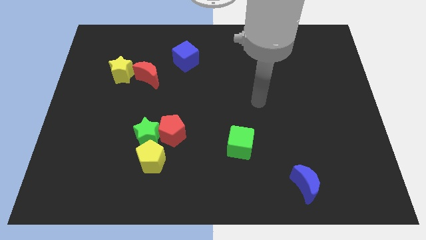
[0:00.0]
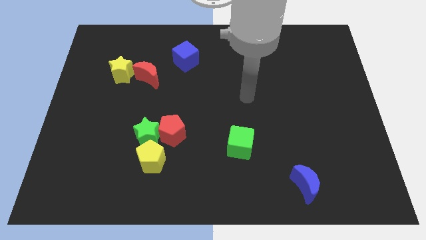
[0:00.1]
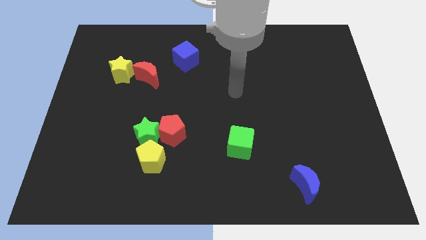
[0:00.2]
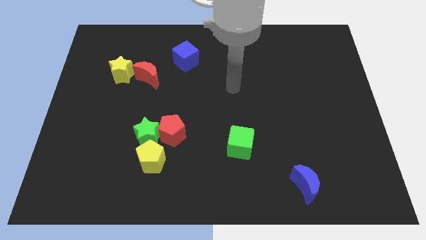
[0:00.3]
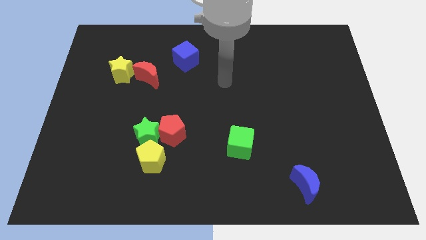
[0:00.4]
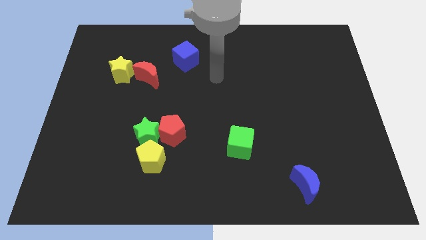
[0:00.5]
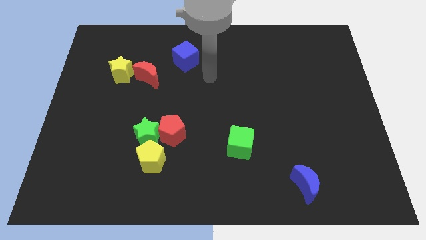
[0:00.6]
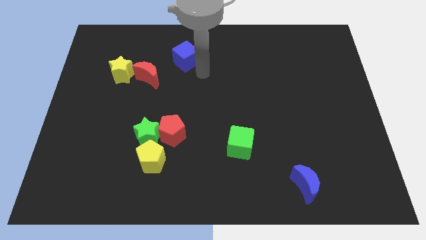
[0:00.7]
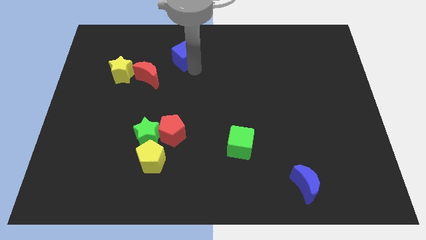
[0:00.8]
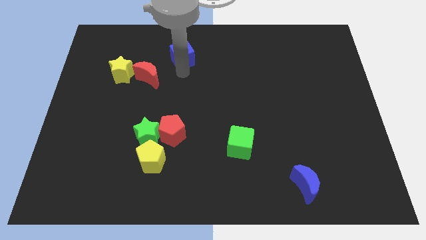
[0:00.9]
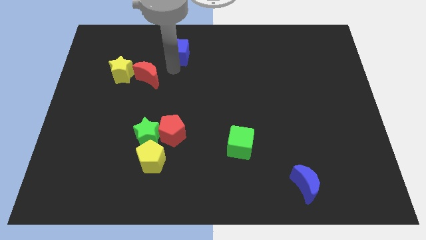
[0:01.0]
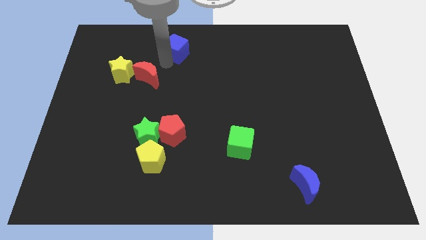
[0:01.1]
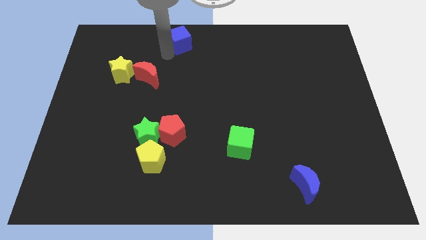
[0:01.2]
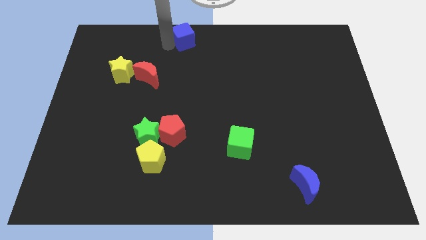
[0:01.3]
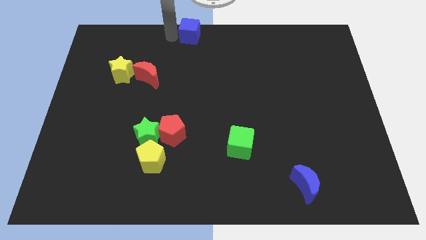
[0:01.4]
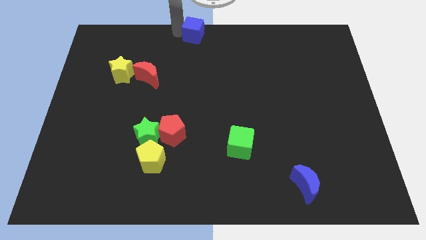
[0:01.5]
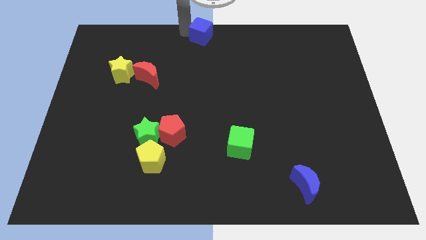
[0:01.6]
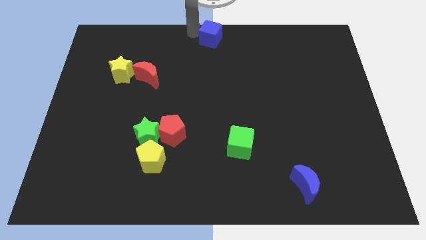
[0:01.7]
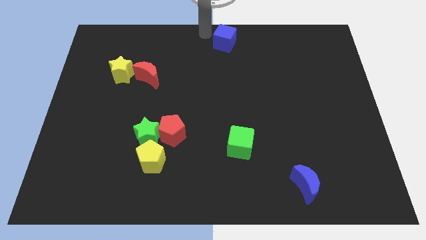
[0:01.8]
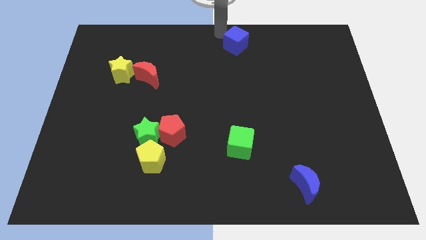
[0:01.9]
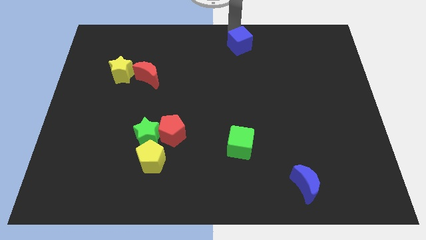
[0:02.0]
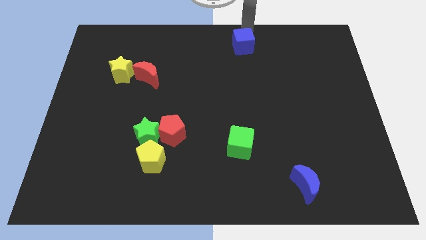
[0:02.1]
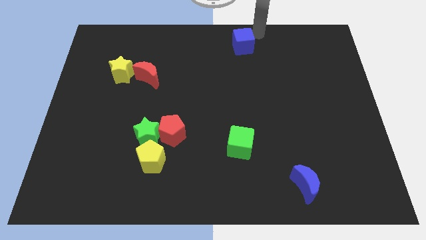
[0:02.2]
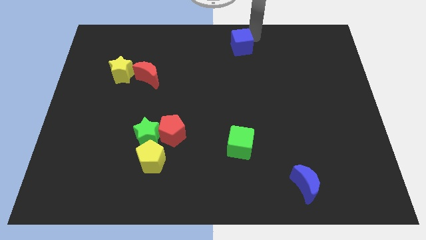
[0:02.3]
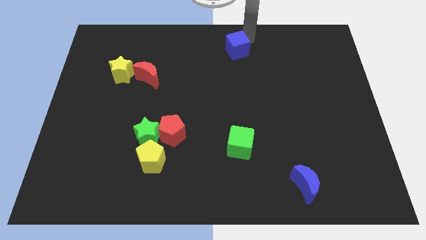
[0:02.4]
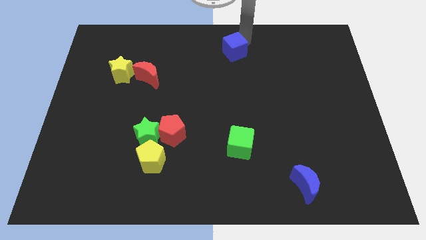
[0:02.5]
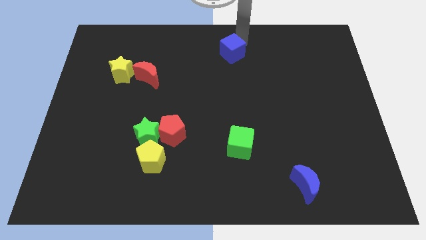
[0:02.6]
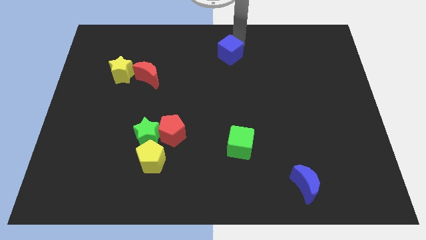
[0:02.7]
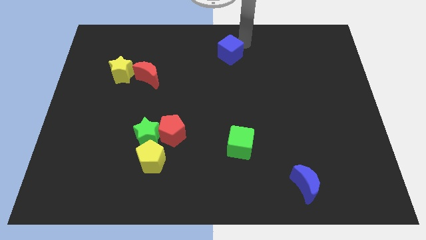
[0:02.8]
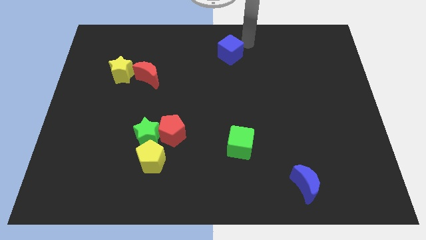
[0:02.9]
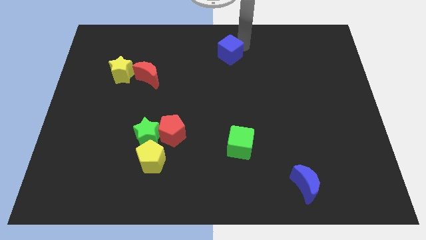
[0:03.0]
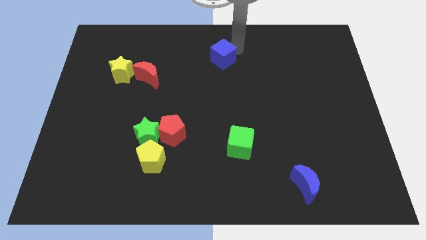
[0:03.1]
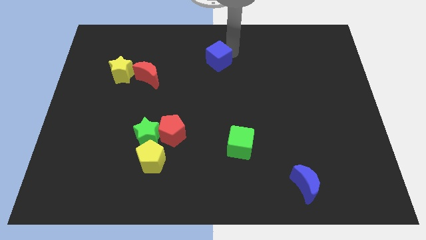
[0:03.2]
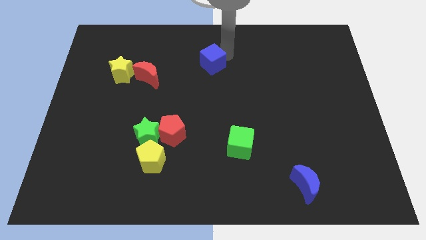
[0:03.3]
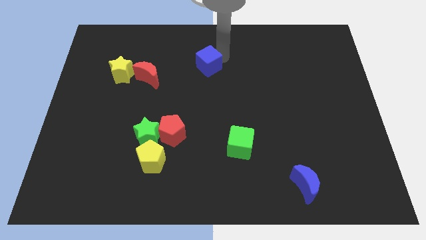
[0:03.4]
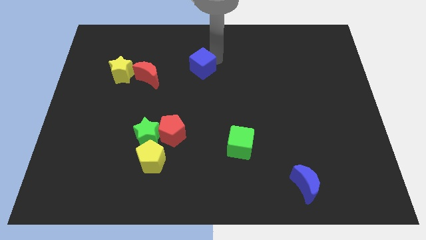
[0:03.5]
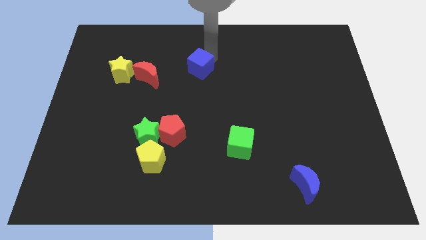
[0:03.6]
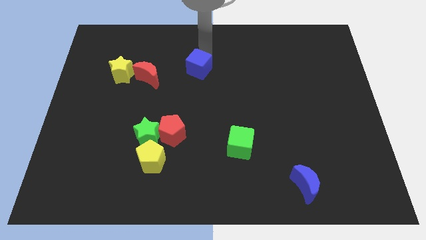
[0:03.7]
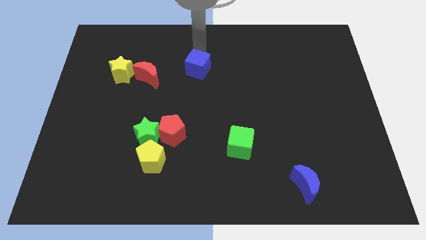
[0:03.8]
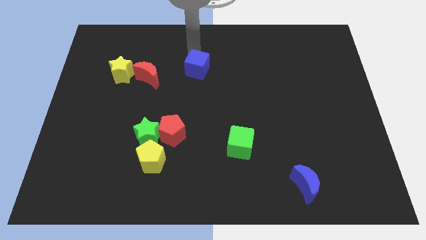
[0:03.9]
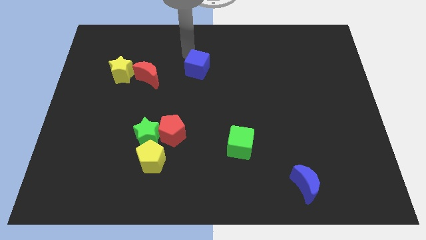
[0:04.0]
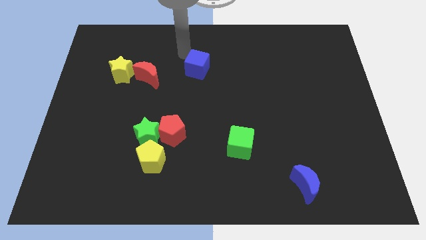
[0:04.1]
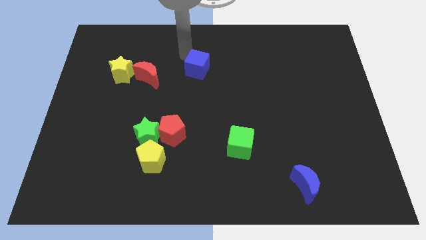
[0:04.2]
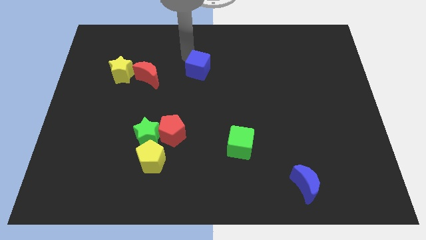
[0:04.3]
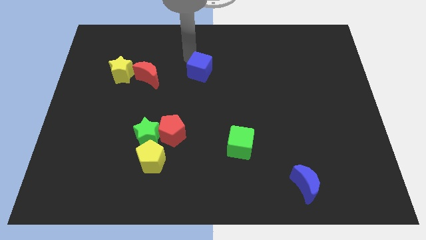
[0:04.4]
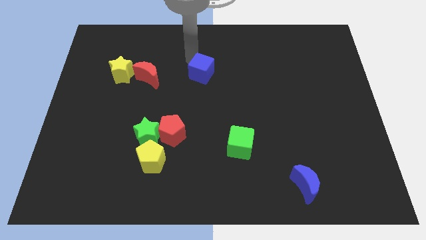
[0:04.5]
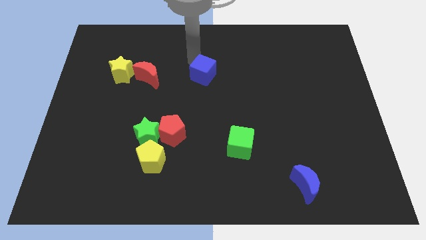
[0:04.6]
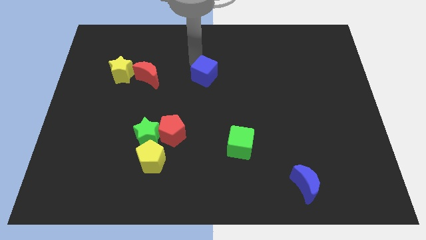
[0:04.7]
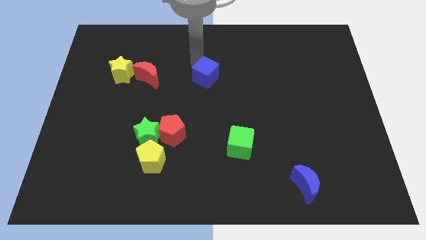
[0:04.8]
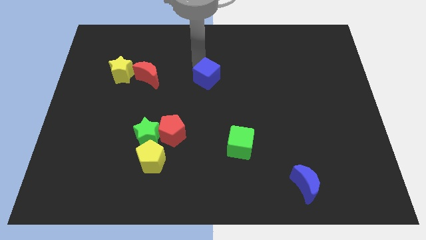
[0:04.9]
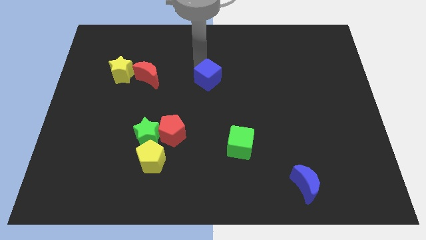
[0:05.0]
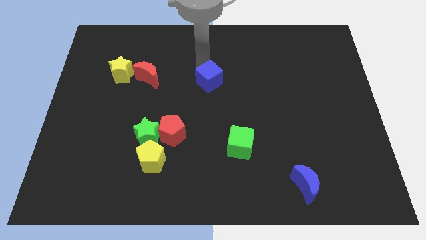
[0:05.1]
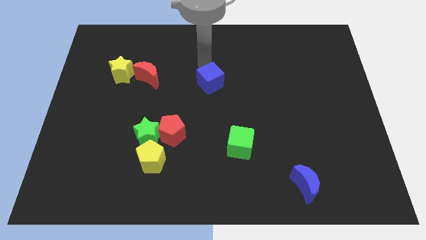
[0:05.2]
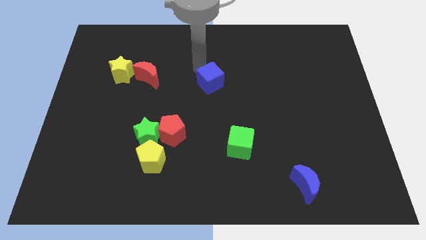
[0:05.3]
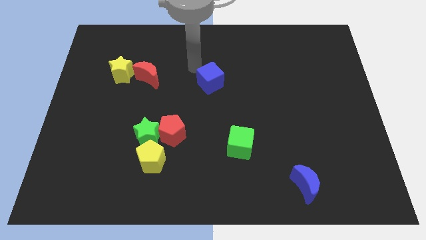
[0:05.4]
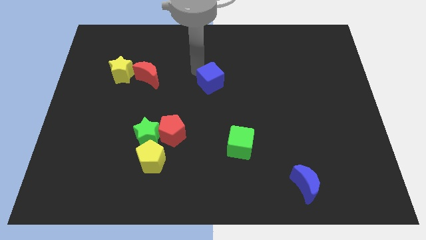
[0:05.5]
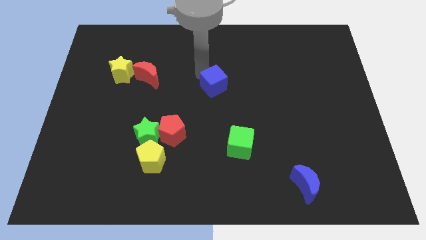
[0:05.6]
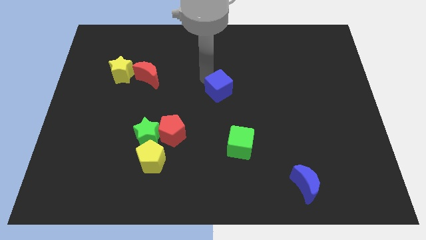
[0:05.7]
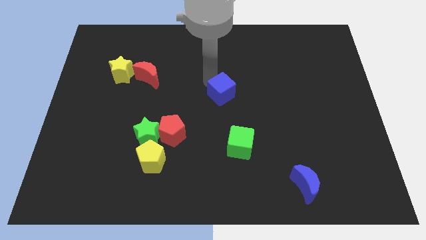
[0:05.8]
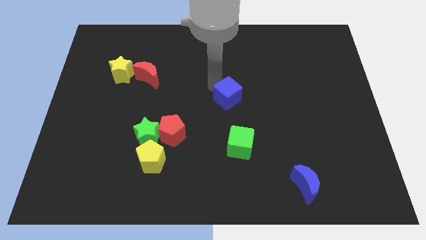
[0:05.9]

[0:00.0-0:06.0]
move the blue cube above the green cube

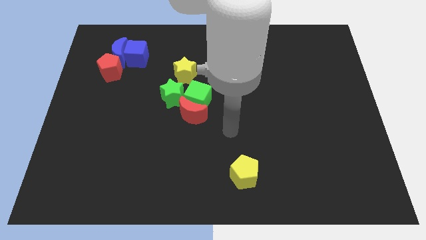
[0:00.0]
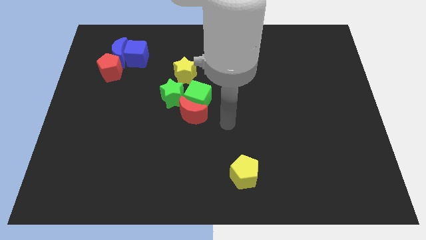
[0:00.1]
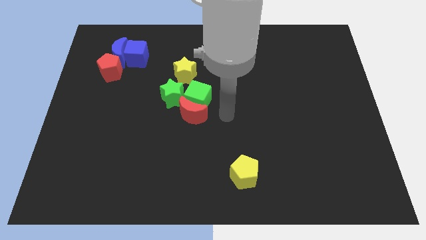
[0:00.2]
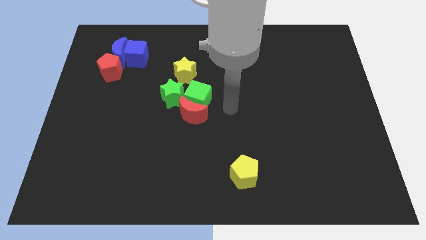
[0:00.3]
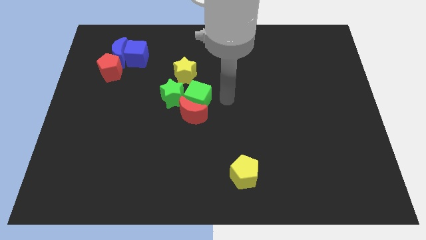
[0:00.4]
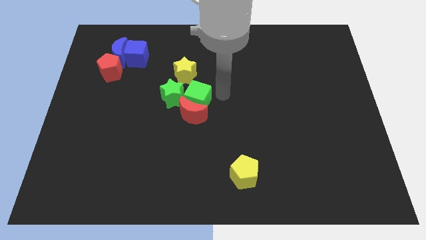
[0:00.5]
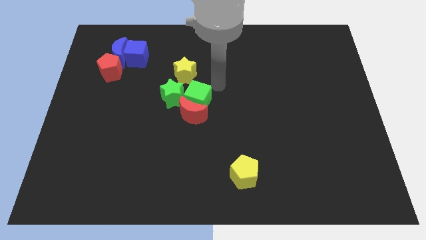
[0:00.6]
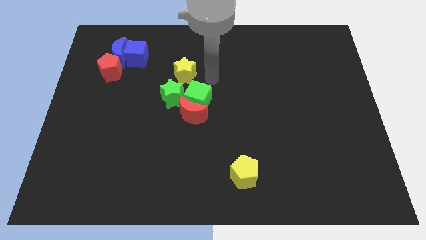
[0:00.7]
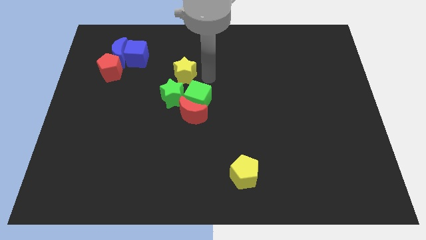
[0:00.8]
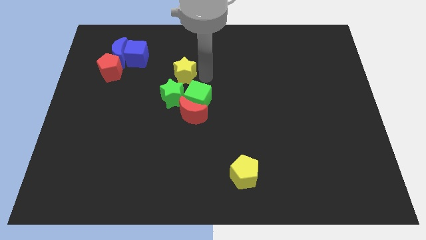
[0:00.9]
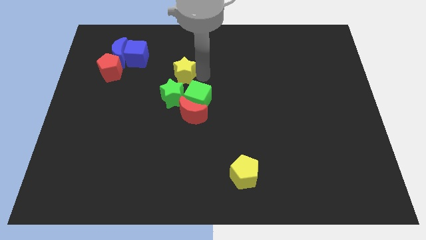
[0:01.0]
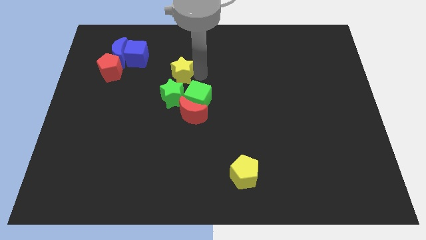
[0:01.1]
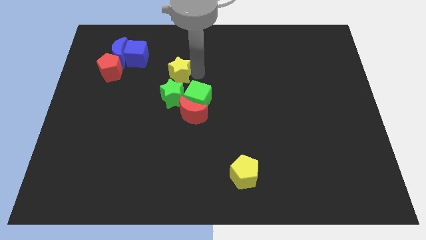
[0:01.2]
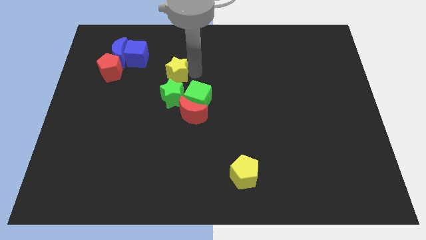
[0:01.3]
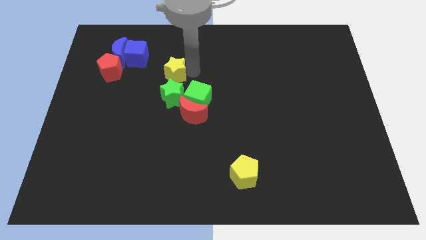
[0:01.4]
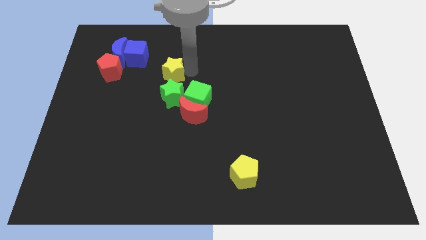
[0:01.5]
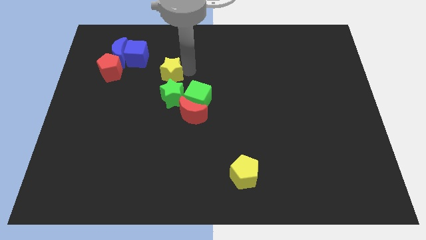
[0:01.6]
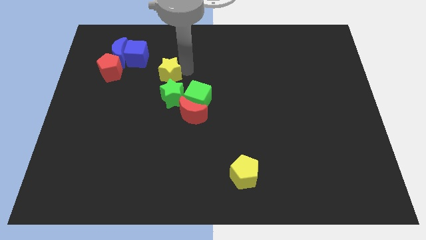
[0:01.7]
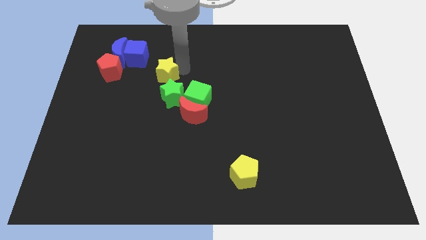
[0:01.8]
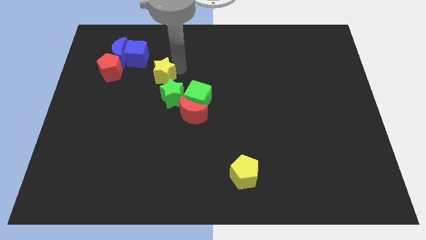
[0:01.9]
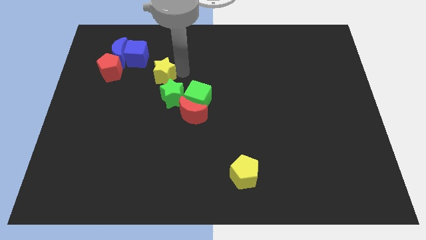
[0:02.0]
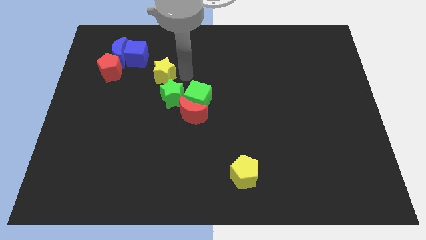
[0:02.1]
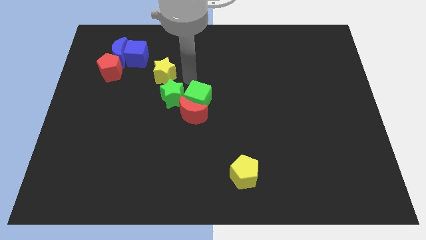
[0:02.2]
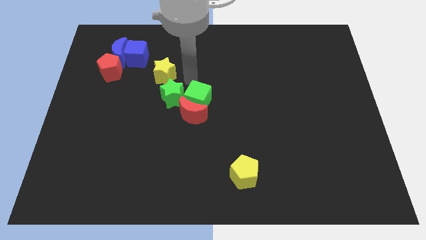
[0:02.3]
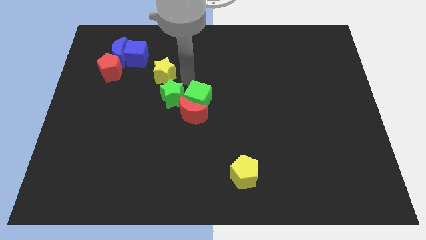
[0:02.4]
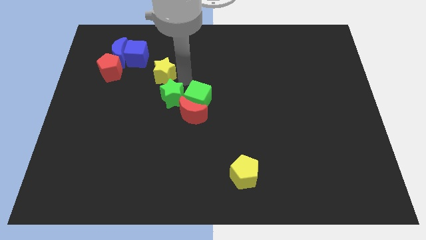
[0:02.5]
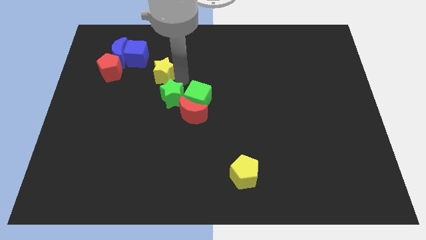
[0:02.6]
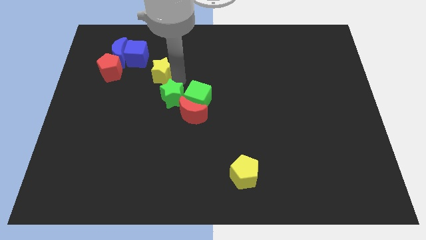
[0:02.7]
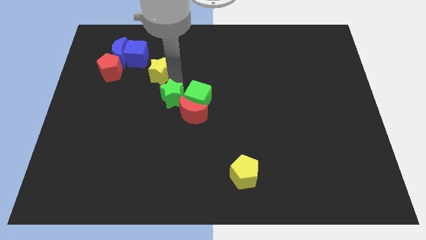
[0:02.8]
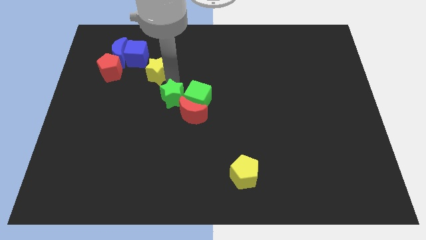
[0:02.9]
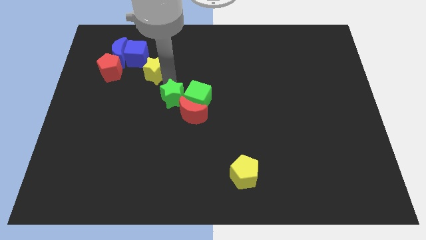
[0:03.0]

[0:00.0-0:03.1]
push the yellow star to the bottom right side of the blue moon
